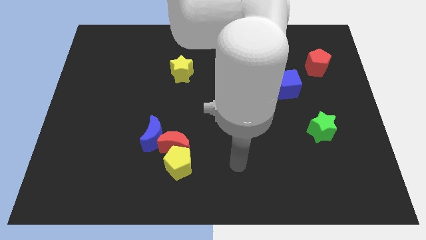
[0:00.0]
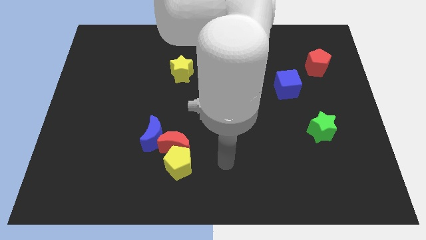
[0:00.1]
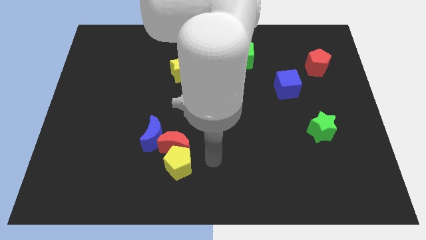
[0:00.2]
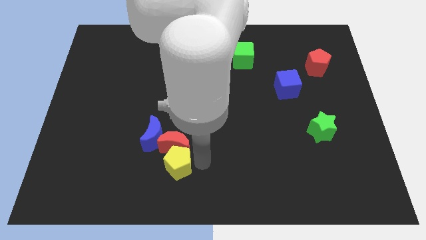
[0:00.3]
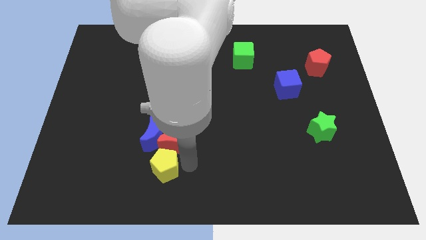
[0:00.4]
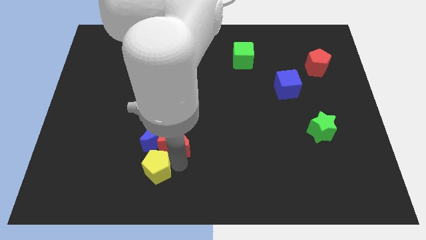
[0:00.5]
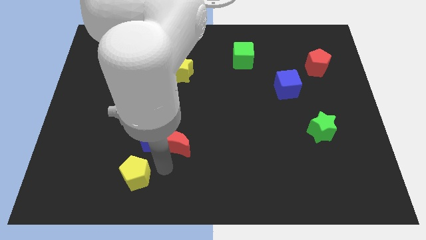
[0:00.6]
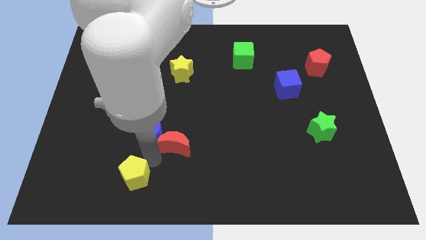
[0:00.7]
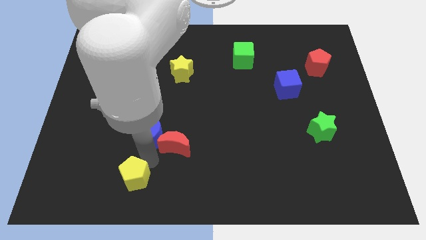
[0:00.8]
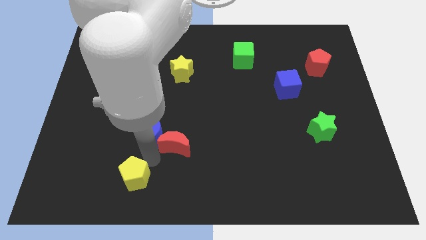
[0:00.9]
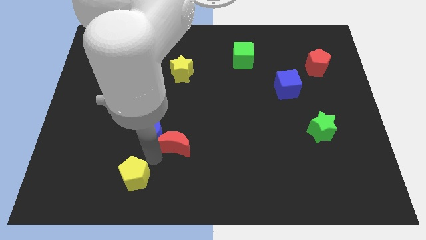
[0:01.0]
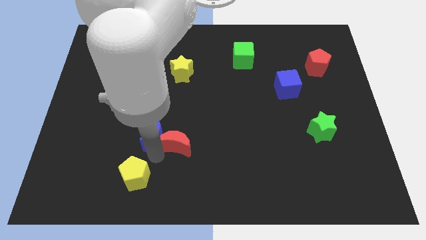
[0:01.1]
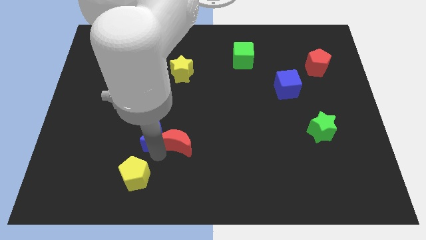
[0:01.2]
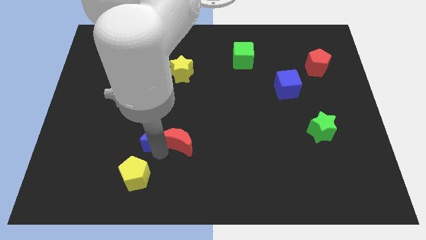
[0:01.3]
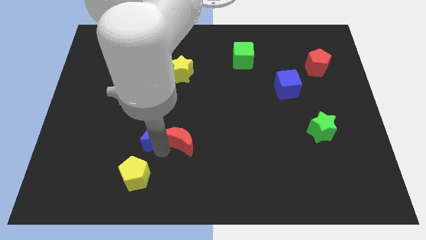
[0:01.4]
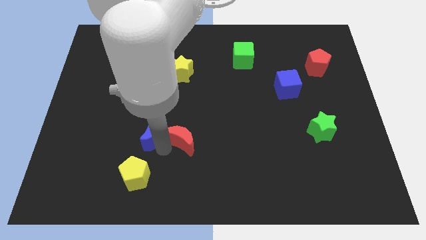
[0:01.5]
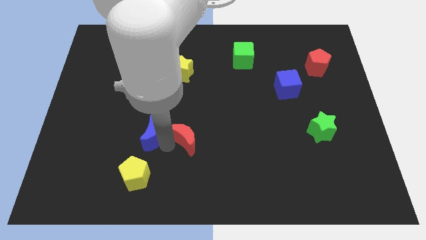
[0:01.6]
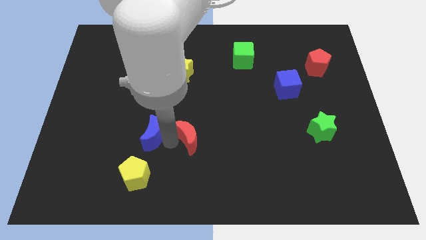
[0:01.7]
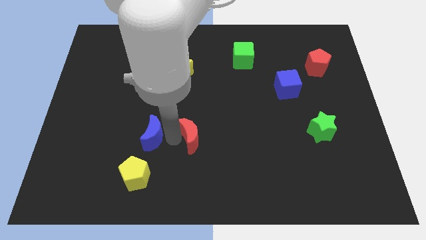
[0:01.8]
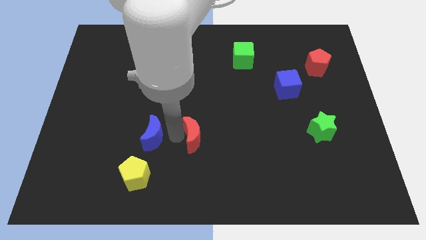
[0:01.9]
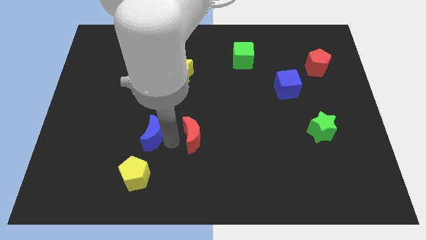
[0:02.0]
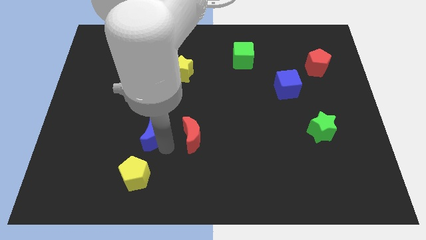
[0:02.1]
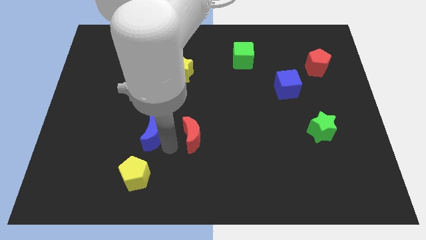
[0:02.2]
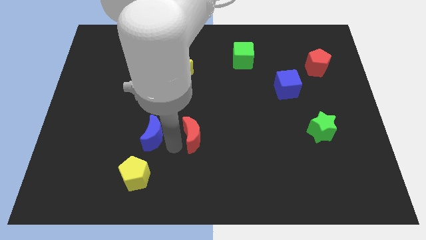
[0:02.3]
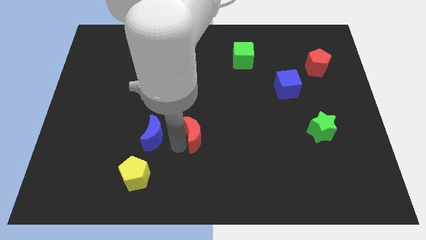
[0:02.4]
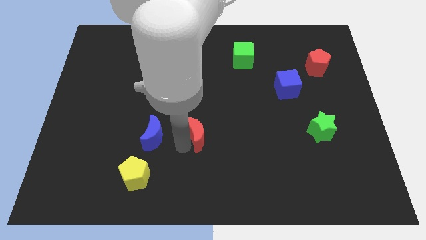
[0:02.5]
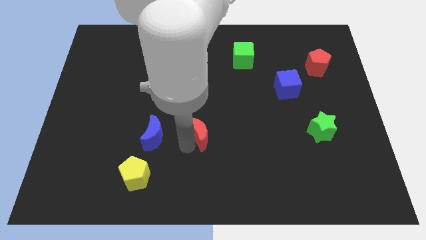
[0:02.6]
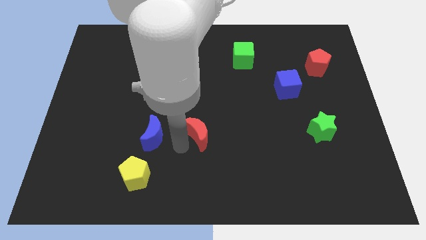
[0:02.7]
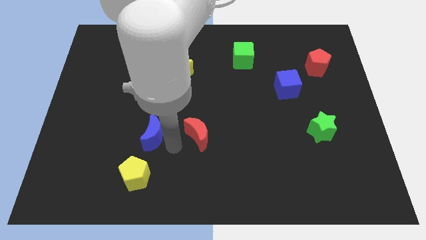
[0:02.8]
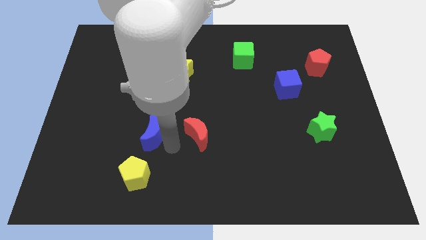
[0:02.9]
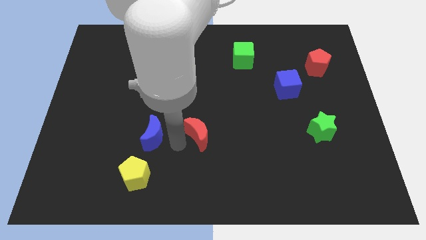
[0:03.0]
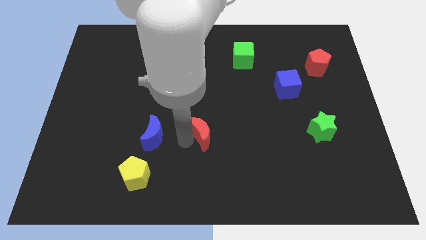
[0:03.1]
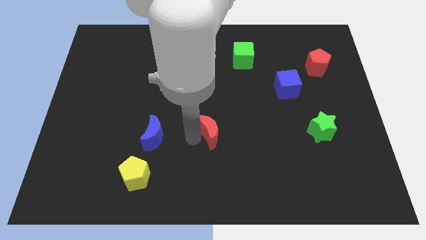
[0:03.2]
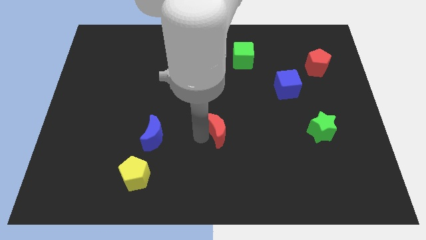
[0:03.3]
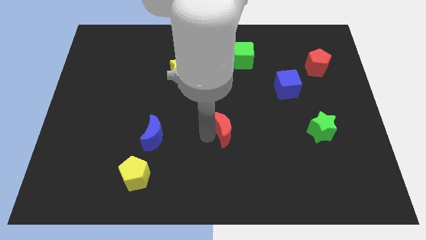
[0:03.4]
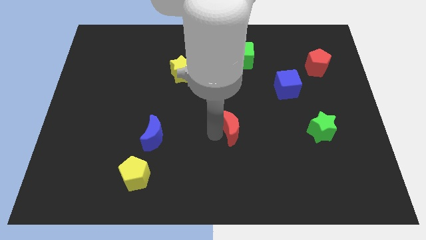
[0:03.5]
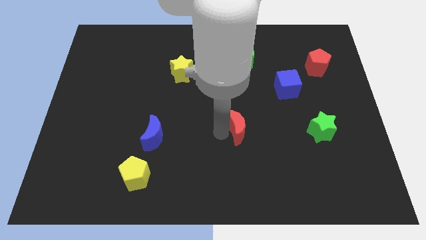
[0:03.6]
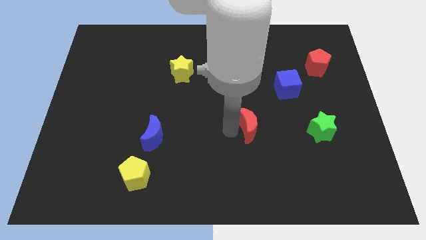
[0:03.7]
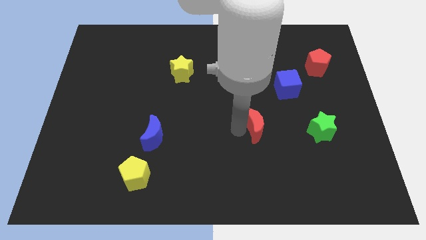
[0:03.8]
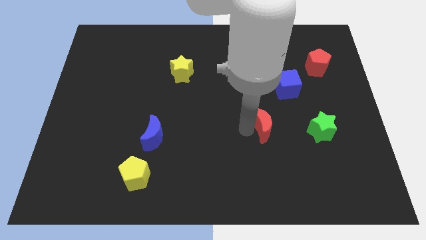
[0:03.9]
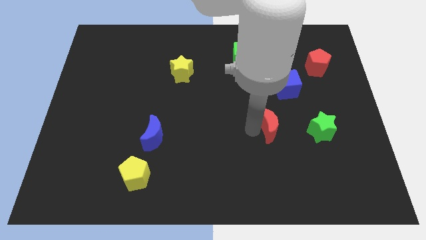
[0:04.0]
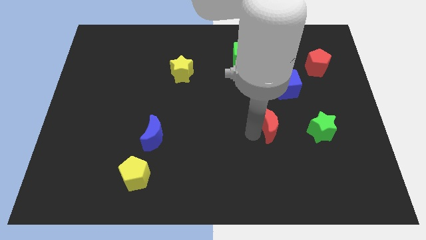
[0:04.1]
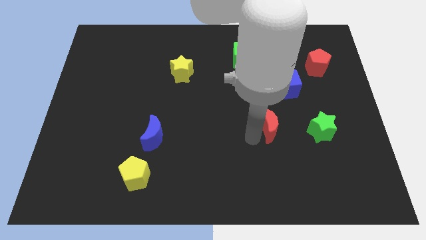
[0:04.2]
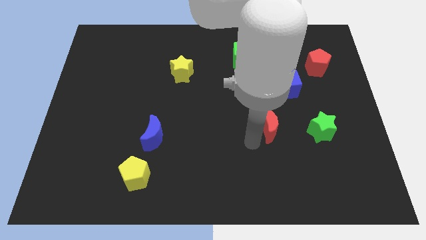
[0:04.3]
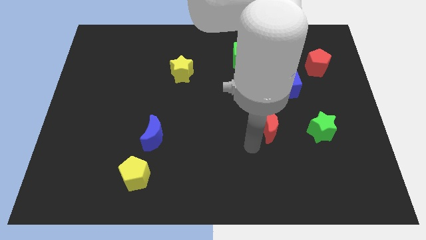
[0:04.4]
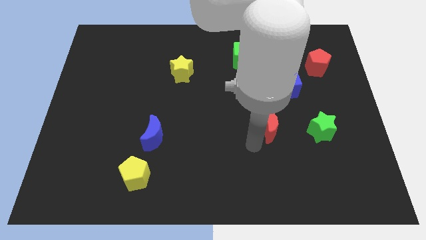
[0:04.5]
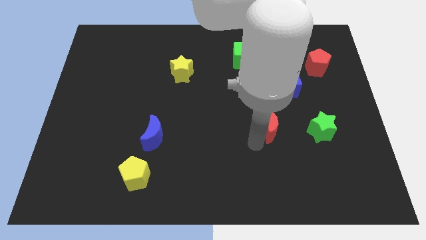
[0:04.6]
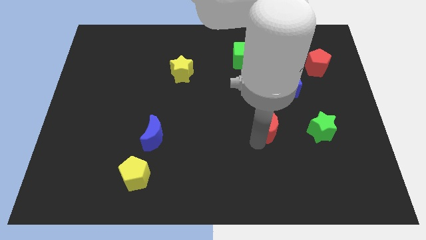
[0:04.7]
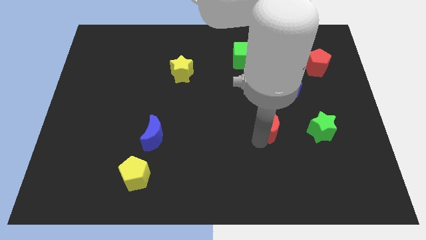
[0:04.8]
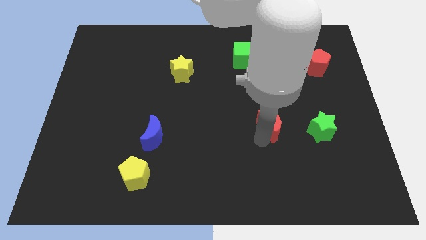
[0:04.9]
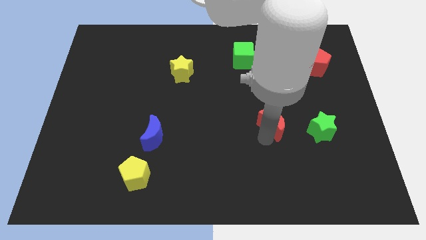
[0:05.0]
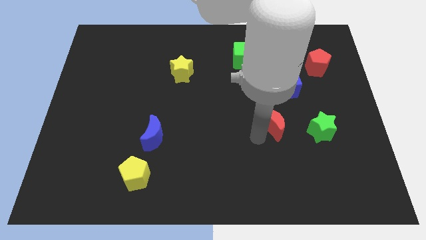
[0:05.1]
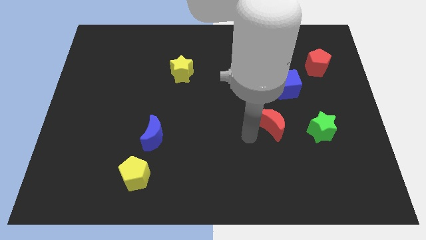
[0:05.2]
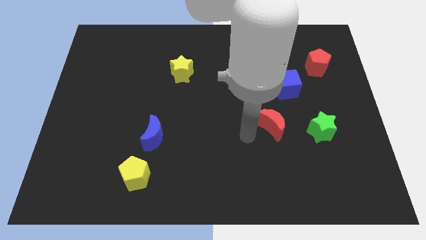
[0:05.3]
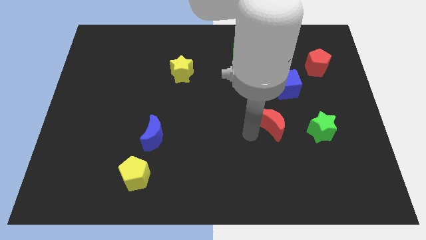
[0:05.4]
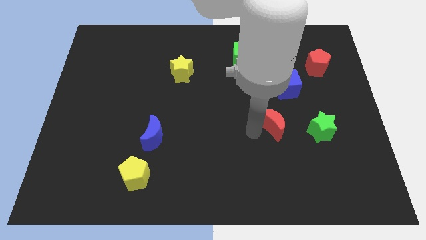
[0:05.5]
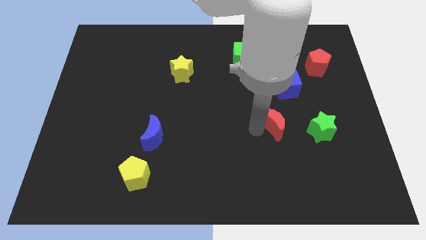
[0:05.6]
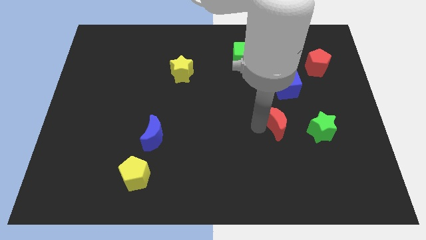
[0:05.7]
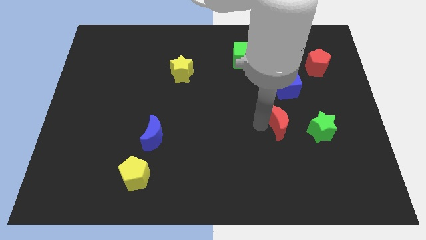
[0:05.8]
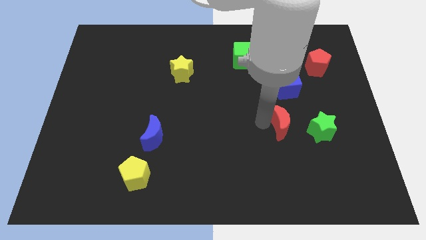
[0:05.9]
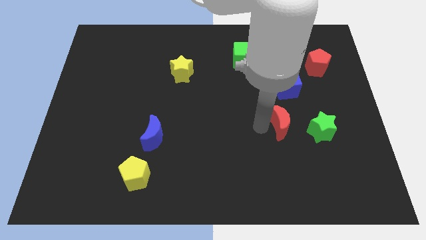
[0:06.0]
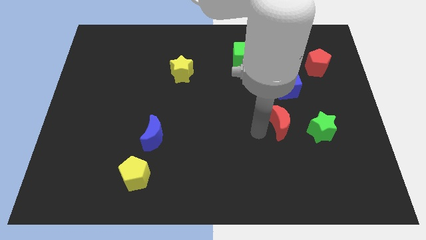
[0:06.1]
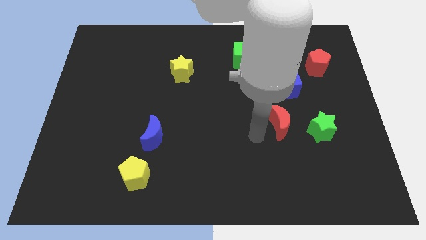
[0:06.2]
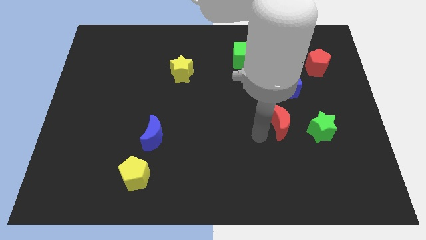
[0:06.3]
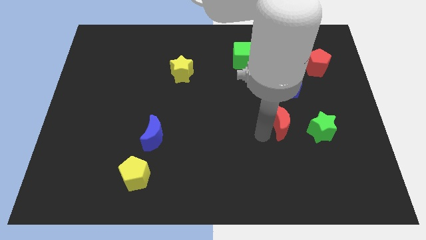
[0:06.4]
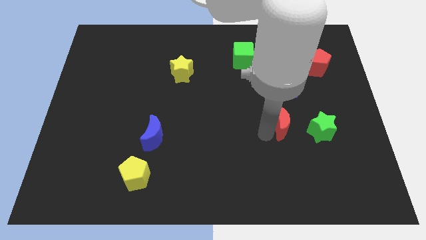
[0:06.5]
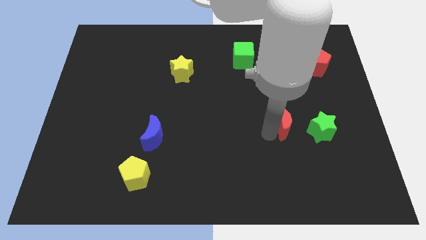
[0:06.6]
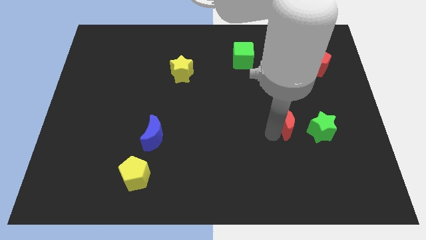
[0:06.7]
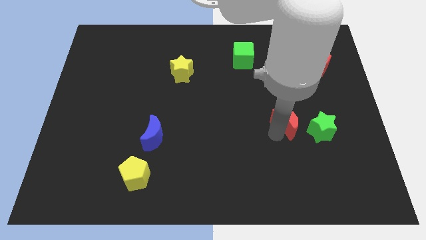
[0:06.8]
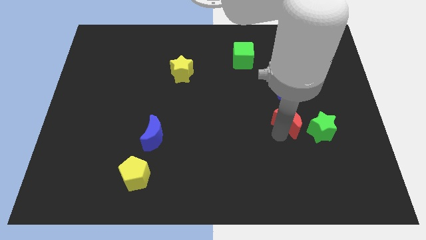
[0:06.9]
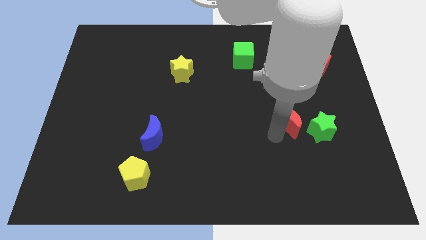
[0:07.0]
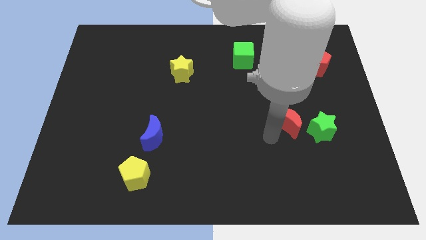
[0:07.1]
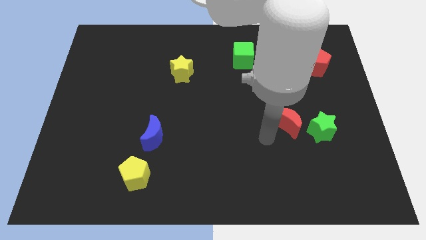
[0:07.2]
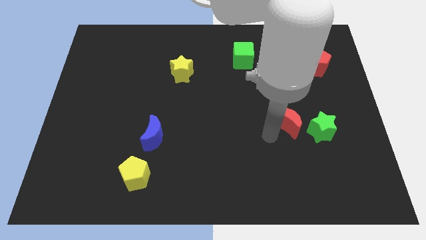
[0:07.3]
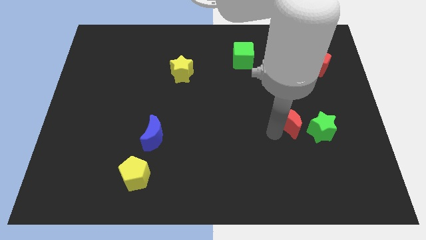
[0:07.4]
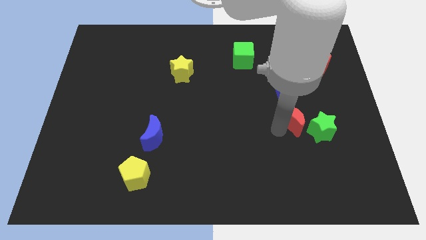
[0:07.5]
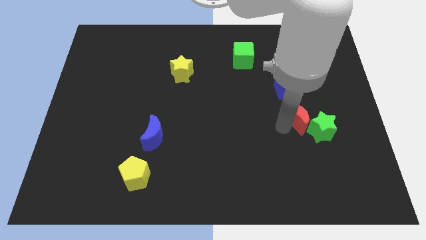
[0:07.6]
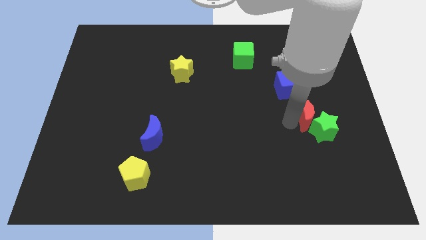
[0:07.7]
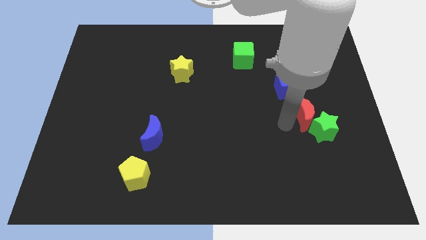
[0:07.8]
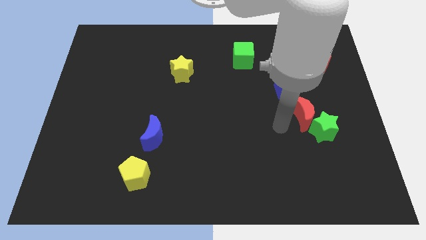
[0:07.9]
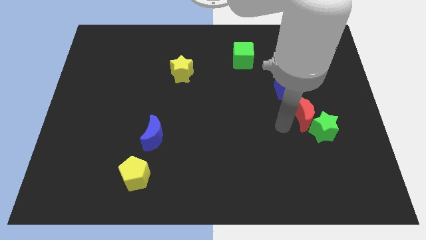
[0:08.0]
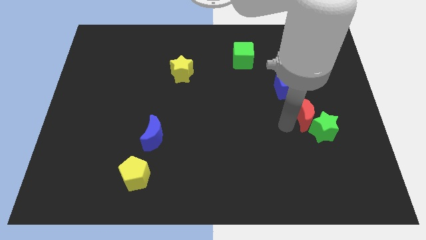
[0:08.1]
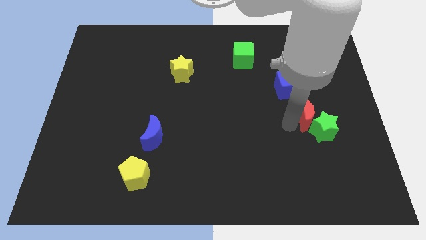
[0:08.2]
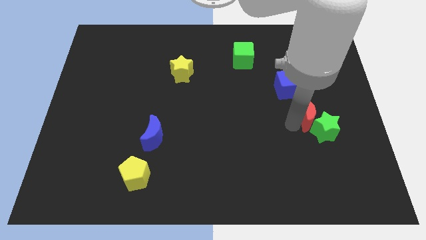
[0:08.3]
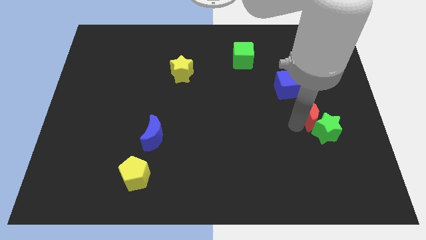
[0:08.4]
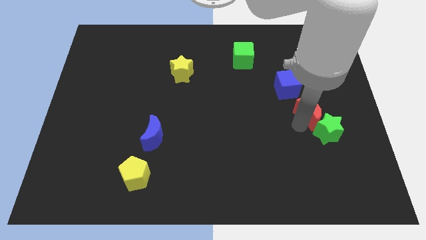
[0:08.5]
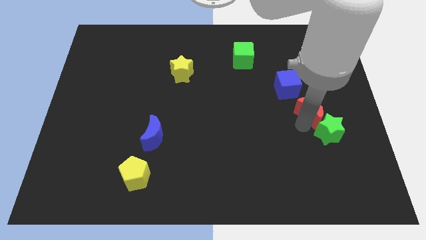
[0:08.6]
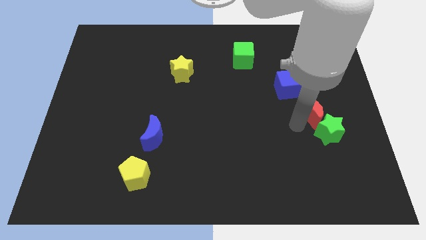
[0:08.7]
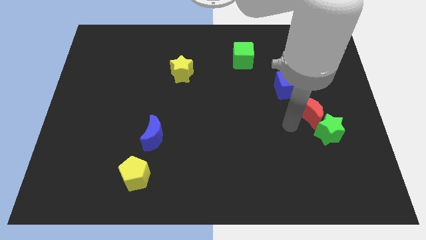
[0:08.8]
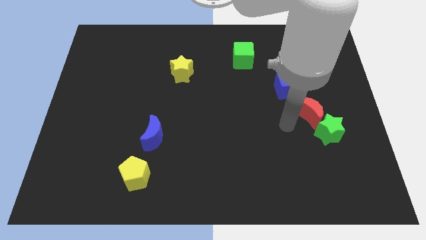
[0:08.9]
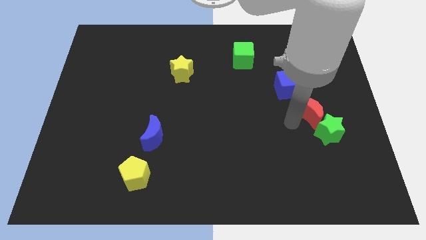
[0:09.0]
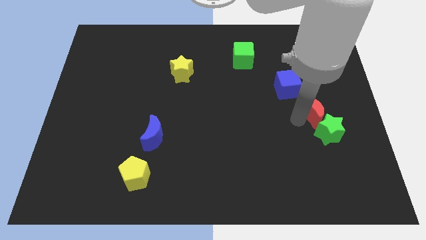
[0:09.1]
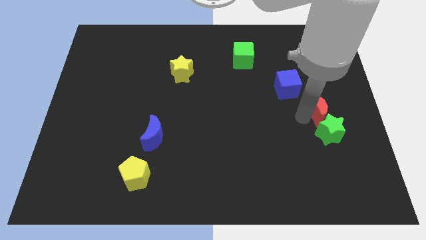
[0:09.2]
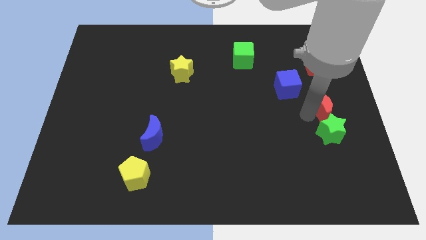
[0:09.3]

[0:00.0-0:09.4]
push the red moon to the right side
